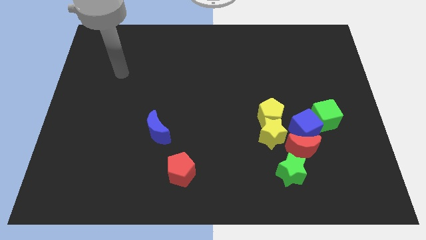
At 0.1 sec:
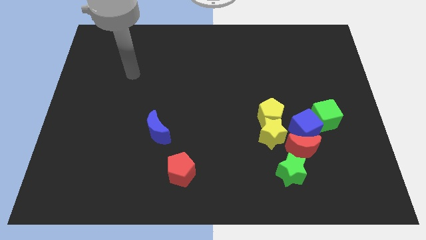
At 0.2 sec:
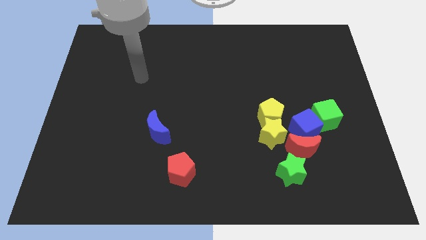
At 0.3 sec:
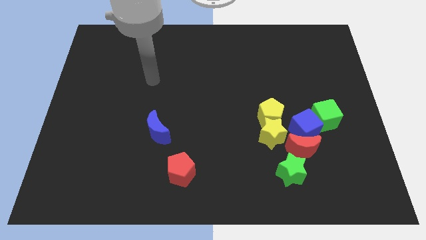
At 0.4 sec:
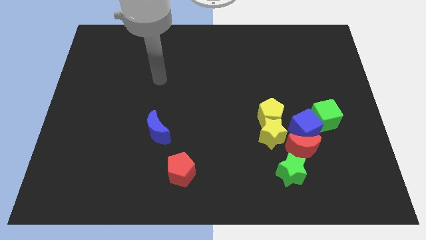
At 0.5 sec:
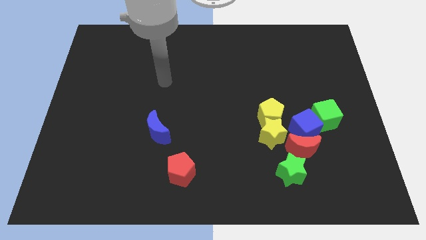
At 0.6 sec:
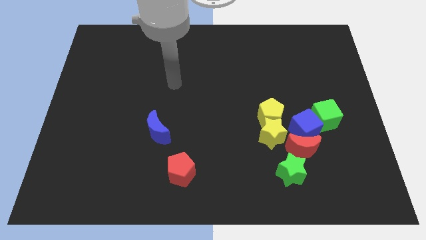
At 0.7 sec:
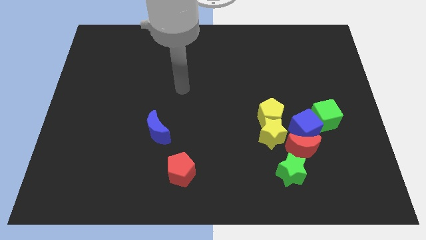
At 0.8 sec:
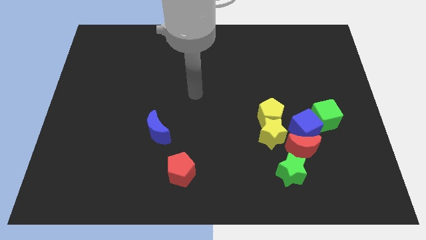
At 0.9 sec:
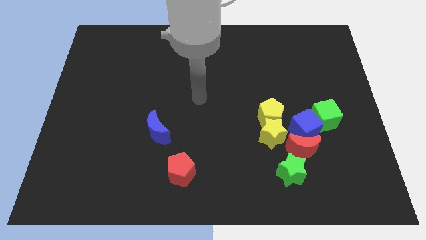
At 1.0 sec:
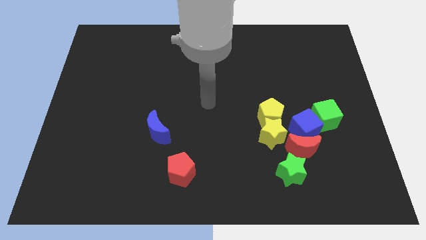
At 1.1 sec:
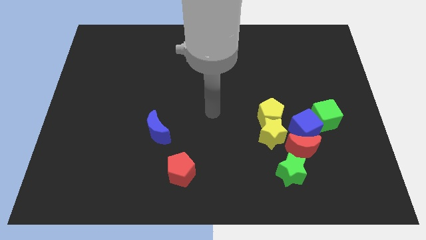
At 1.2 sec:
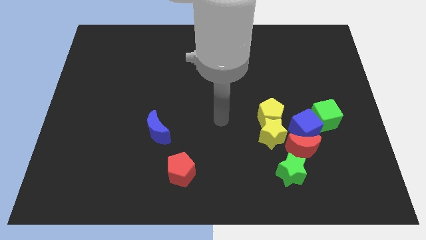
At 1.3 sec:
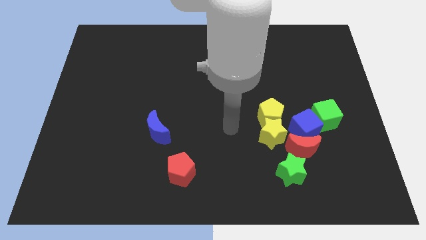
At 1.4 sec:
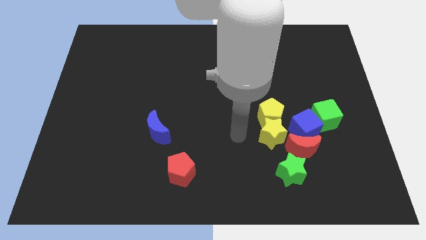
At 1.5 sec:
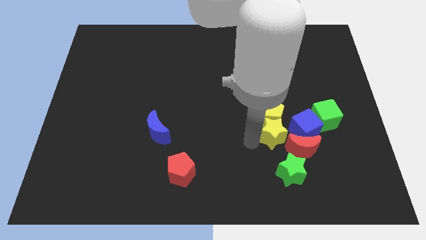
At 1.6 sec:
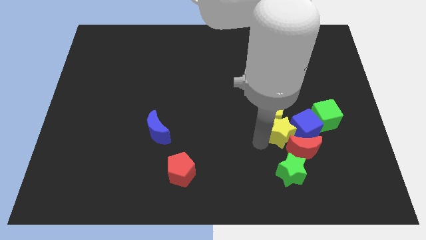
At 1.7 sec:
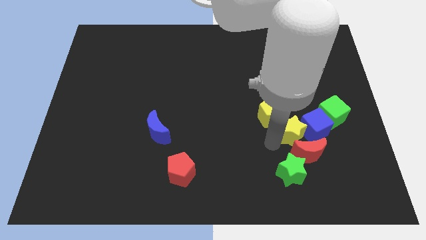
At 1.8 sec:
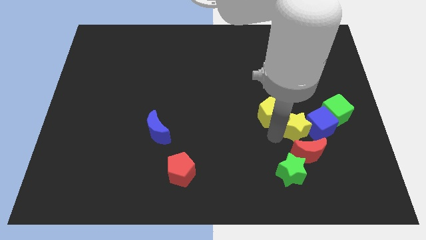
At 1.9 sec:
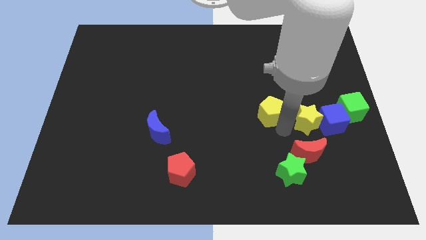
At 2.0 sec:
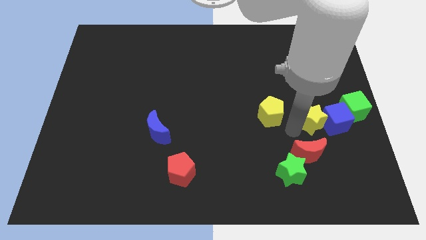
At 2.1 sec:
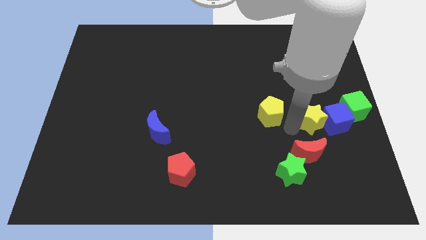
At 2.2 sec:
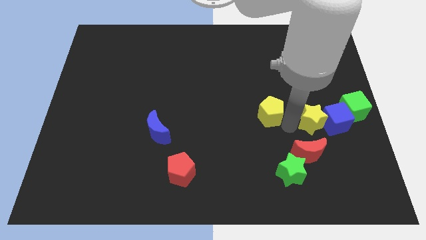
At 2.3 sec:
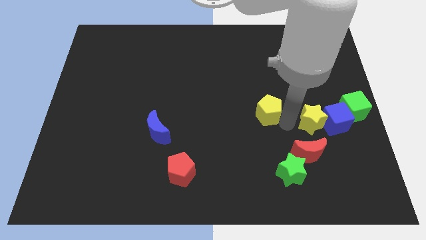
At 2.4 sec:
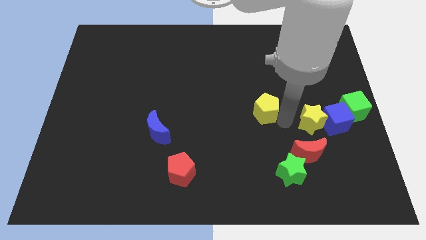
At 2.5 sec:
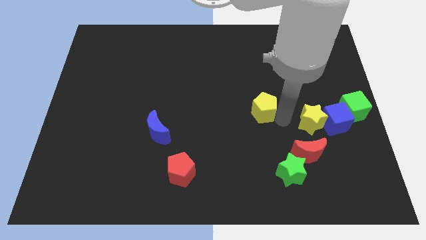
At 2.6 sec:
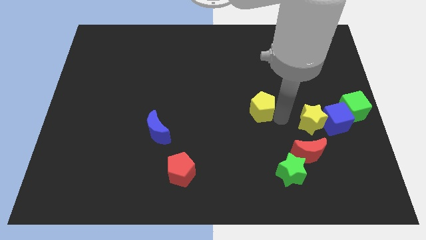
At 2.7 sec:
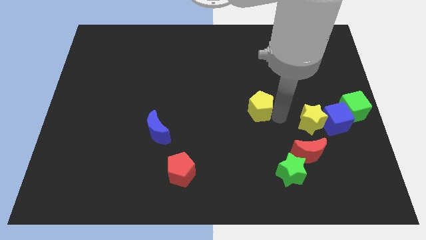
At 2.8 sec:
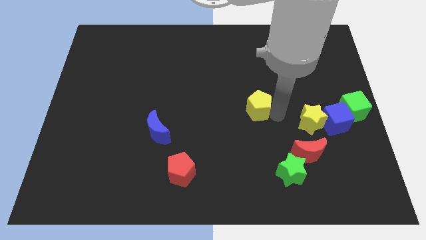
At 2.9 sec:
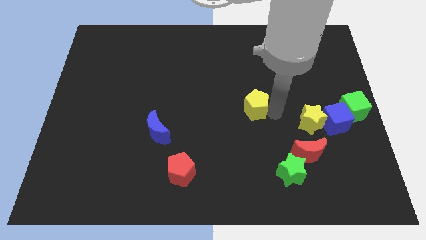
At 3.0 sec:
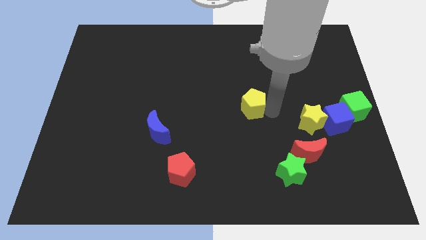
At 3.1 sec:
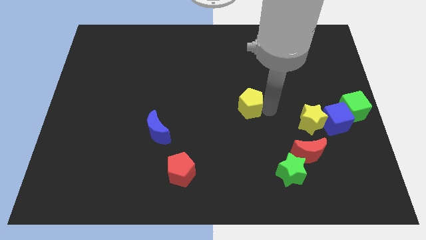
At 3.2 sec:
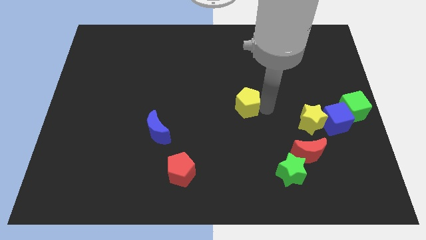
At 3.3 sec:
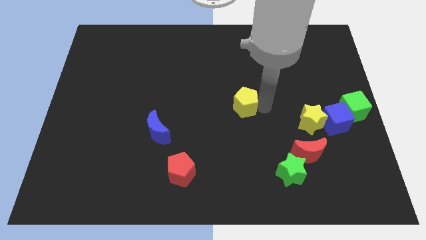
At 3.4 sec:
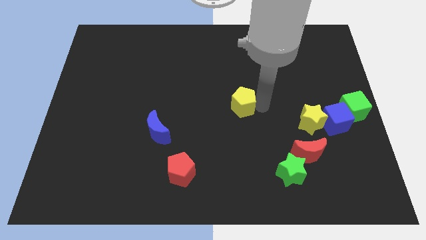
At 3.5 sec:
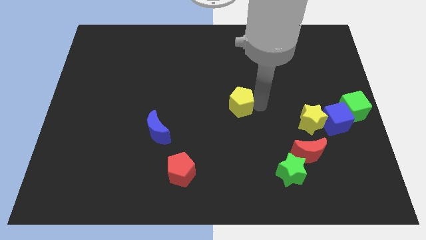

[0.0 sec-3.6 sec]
slide the yellow pentagon a little bit up and then to the left

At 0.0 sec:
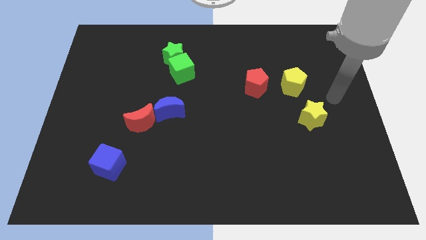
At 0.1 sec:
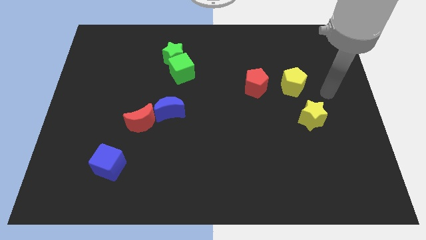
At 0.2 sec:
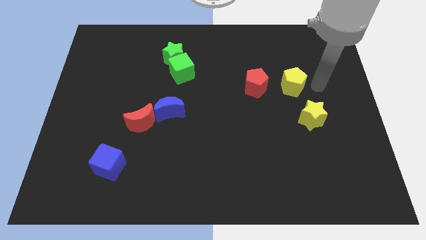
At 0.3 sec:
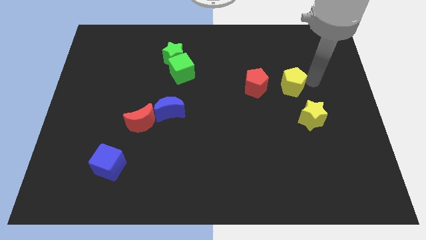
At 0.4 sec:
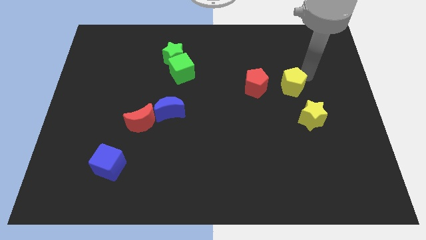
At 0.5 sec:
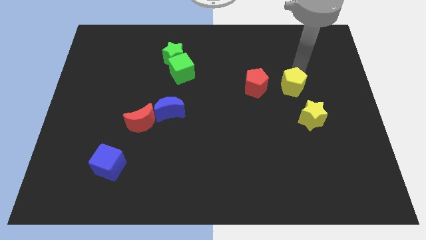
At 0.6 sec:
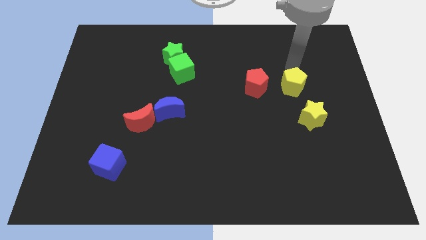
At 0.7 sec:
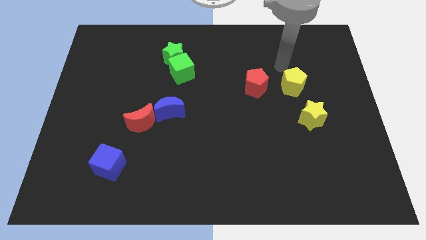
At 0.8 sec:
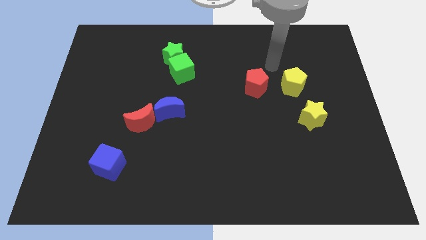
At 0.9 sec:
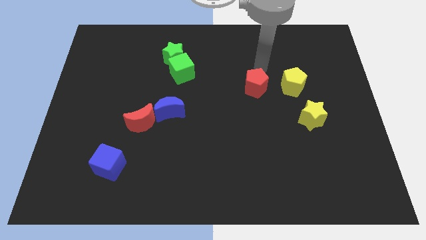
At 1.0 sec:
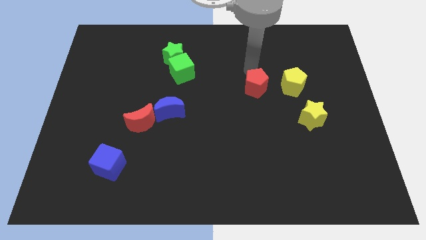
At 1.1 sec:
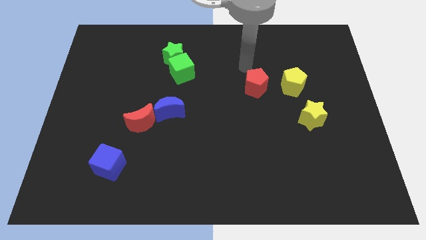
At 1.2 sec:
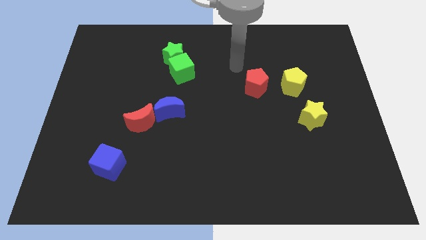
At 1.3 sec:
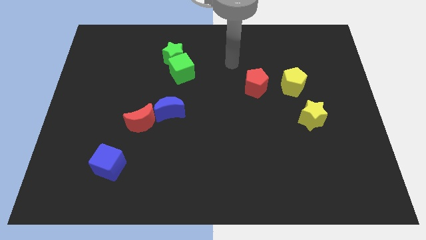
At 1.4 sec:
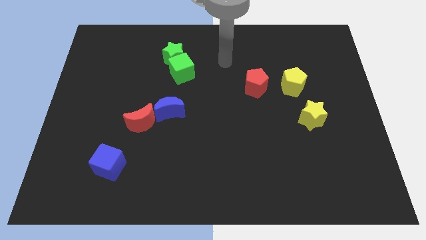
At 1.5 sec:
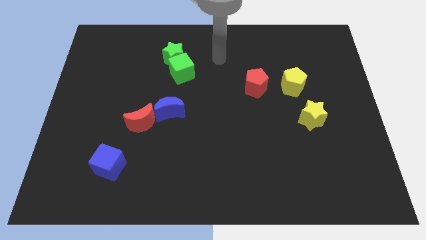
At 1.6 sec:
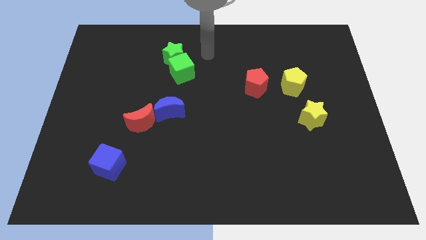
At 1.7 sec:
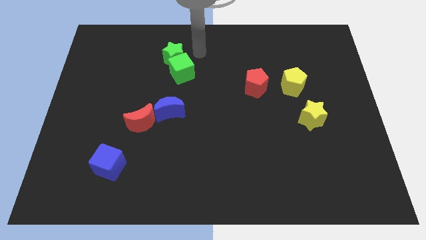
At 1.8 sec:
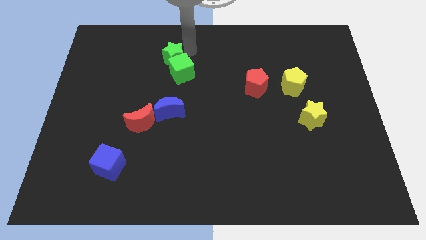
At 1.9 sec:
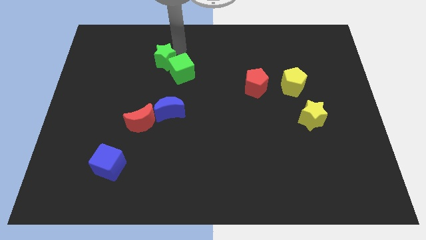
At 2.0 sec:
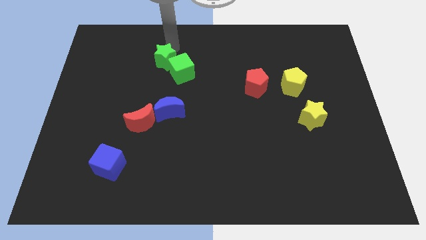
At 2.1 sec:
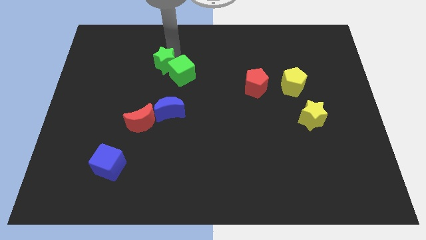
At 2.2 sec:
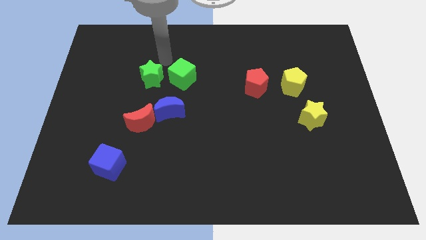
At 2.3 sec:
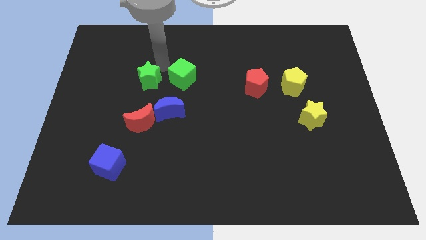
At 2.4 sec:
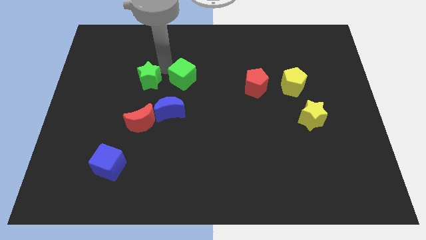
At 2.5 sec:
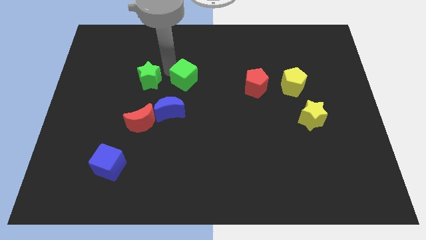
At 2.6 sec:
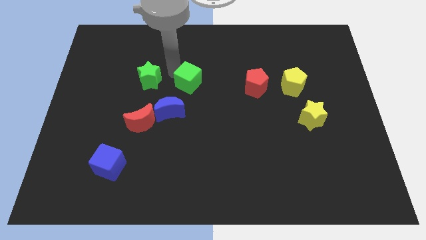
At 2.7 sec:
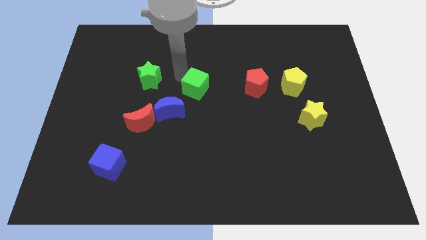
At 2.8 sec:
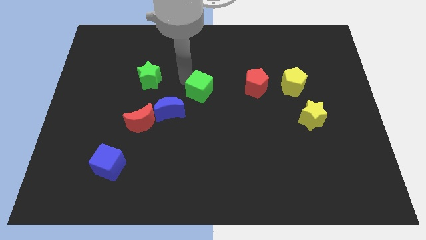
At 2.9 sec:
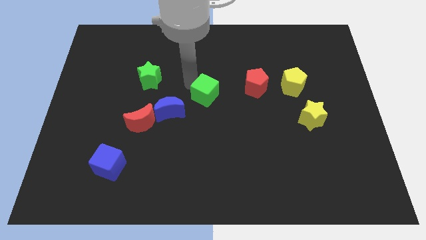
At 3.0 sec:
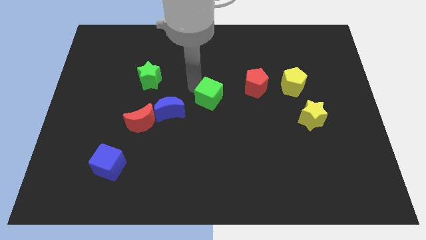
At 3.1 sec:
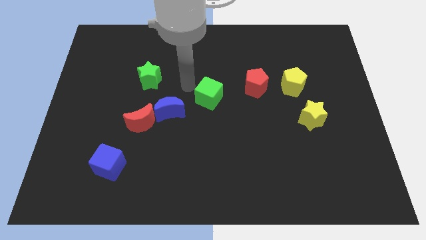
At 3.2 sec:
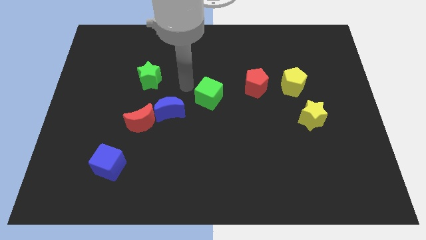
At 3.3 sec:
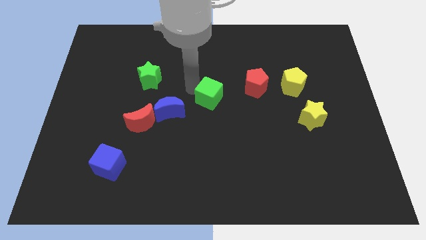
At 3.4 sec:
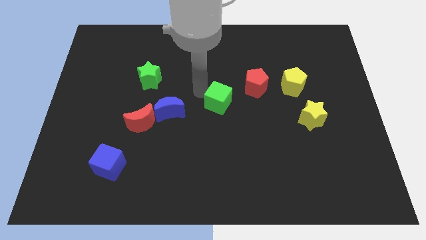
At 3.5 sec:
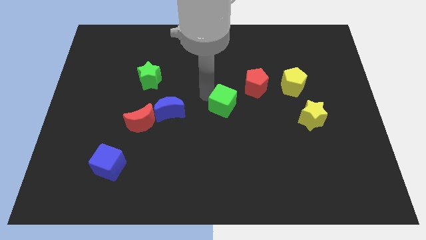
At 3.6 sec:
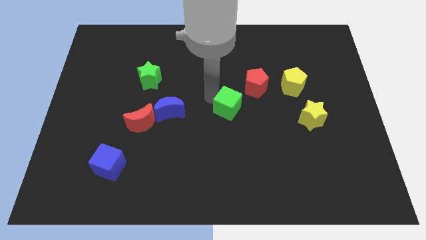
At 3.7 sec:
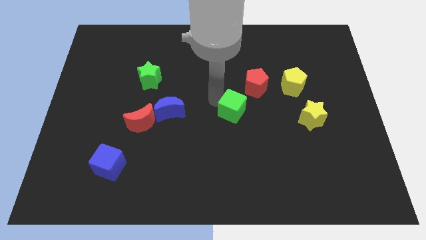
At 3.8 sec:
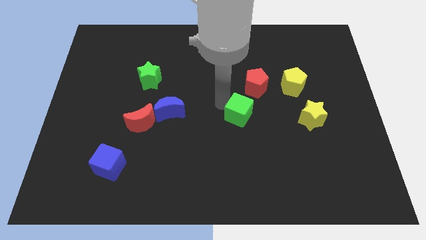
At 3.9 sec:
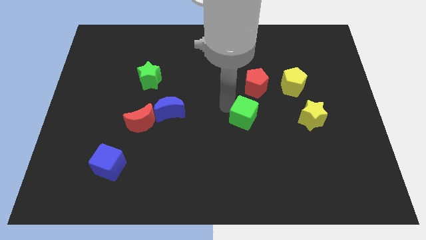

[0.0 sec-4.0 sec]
slide the green cube downwards and to the right

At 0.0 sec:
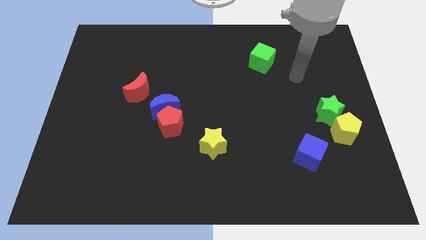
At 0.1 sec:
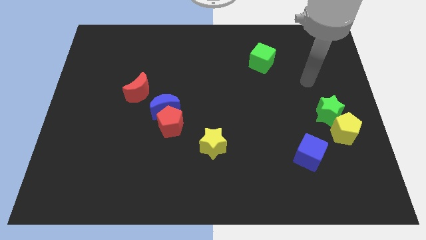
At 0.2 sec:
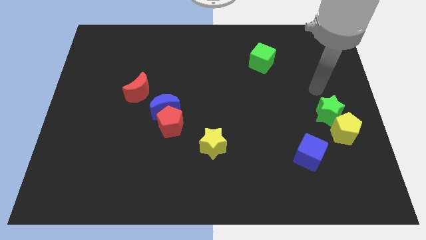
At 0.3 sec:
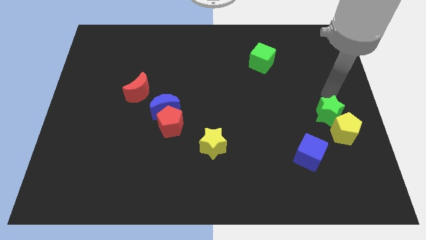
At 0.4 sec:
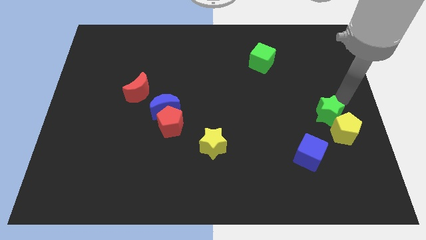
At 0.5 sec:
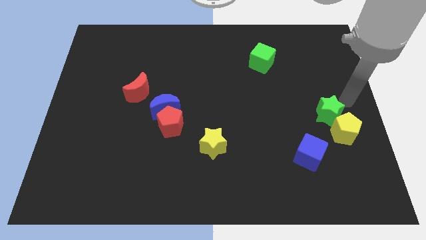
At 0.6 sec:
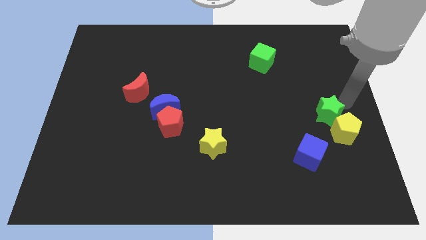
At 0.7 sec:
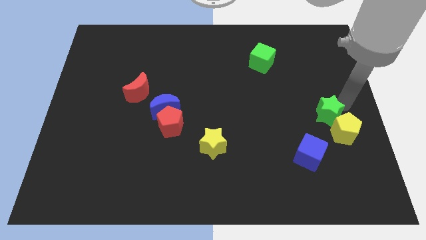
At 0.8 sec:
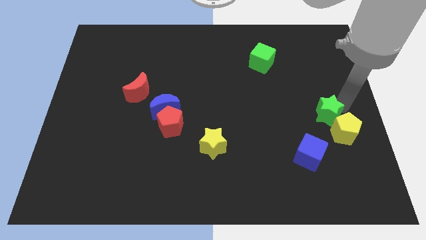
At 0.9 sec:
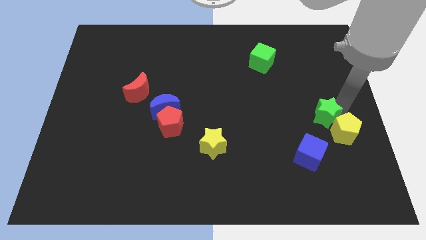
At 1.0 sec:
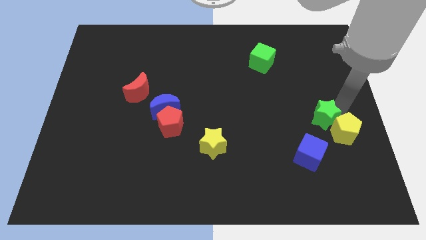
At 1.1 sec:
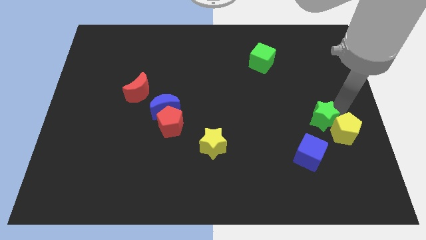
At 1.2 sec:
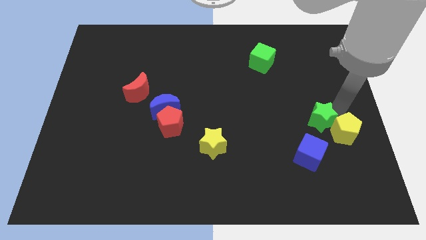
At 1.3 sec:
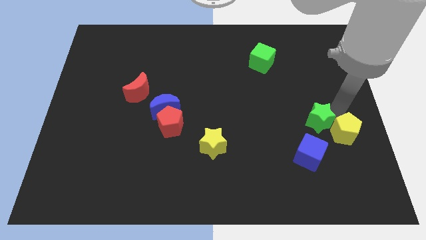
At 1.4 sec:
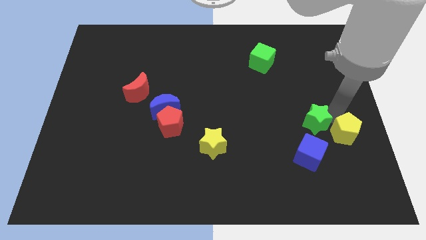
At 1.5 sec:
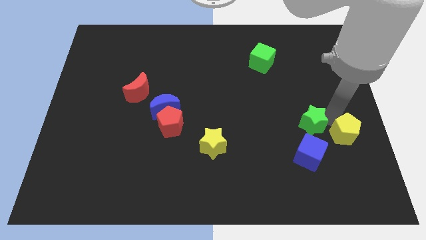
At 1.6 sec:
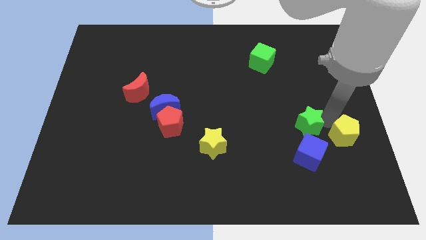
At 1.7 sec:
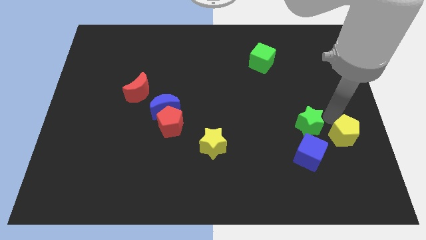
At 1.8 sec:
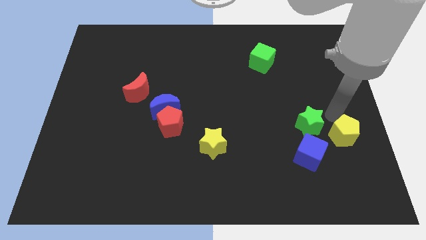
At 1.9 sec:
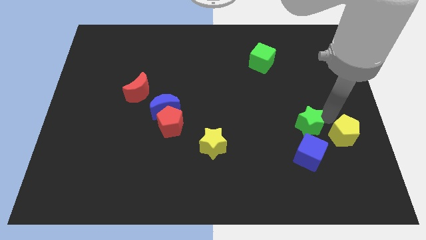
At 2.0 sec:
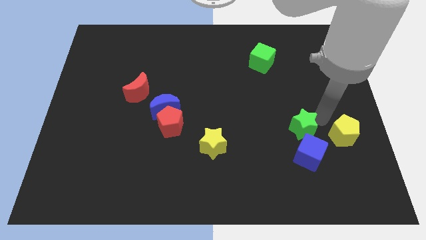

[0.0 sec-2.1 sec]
slightly slide the green star downwards and then left
